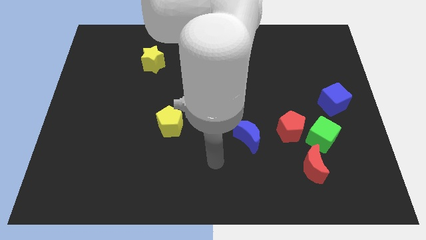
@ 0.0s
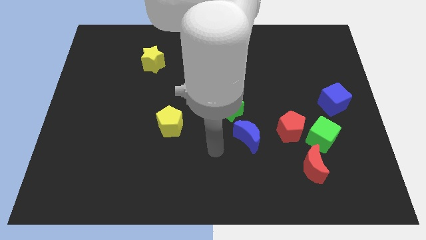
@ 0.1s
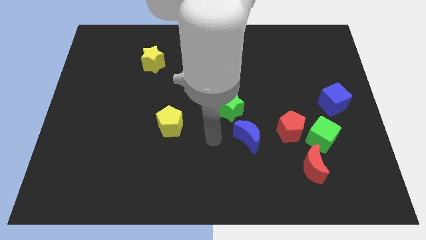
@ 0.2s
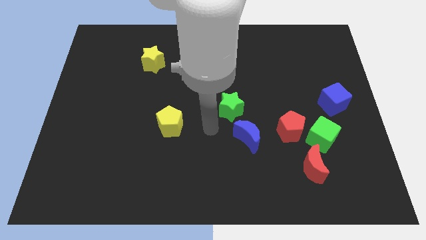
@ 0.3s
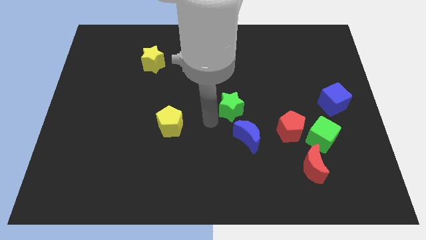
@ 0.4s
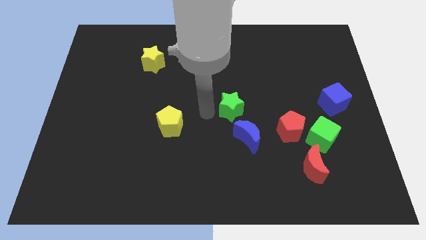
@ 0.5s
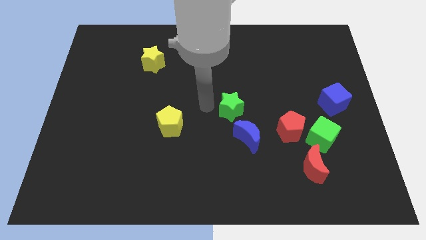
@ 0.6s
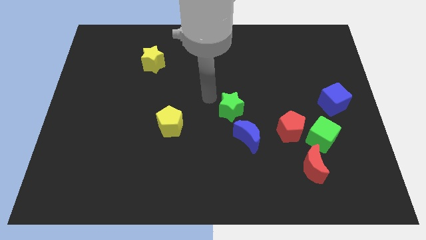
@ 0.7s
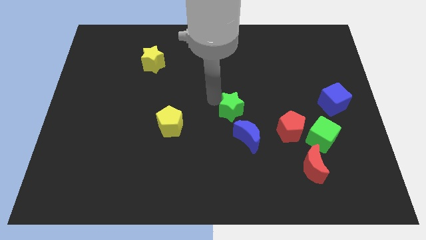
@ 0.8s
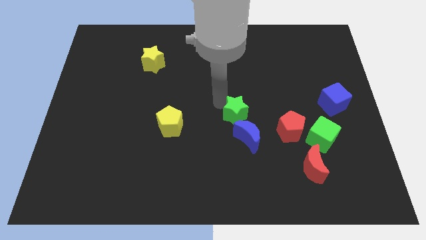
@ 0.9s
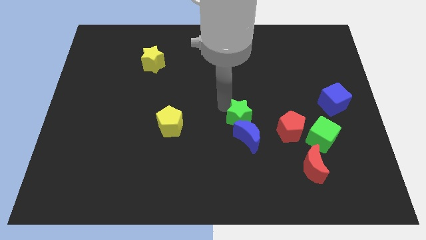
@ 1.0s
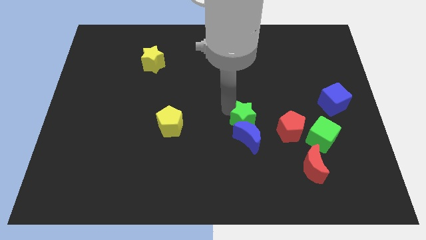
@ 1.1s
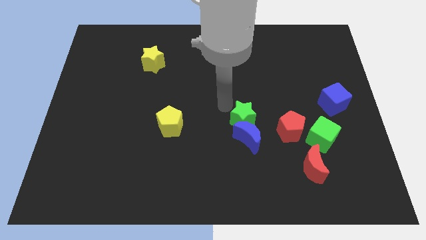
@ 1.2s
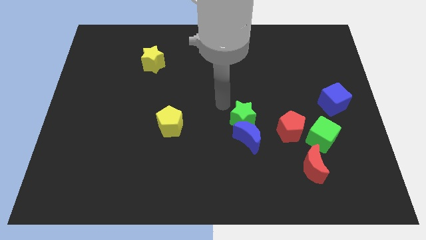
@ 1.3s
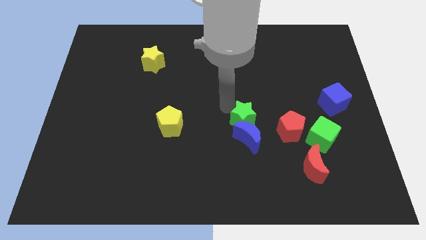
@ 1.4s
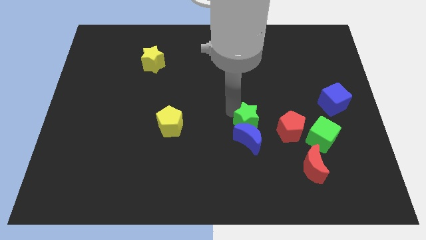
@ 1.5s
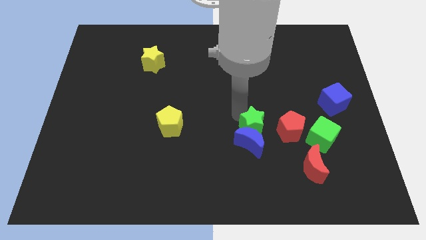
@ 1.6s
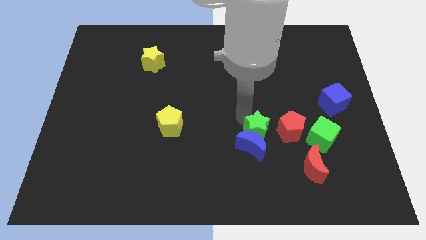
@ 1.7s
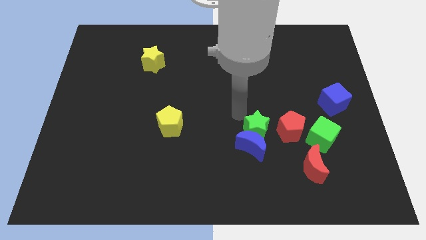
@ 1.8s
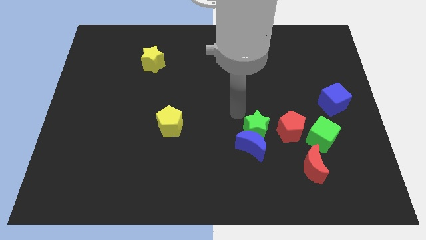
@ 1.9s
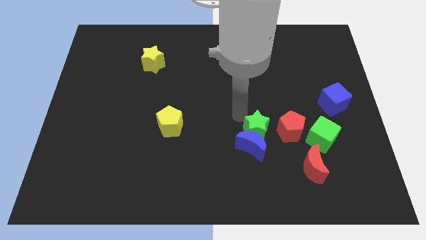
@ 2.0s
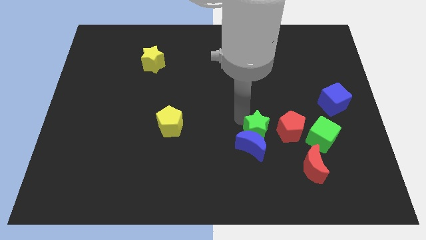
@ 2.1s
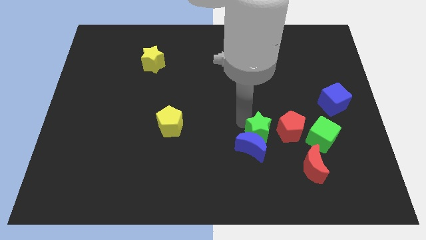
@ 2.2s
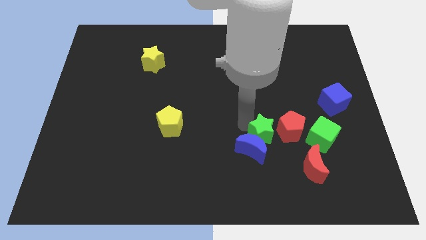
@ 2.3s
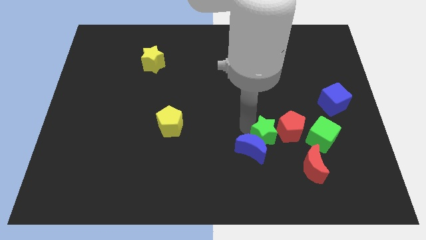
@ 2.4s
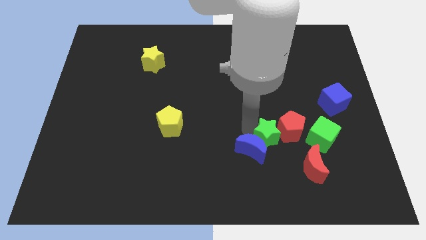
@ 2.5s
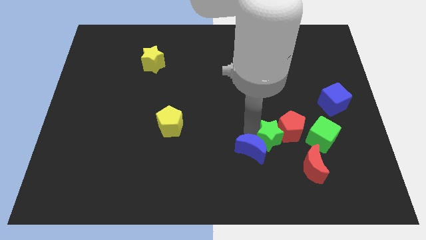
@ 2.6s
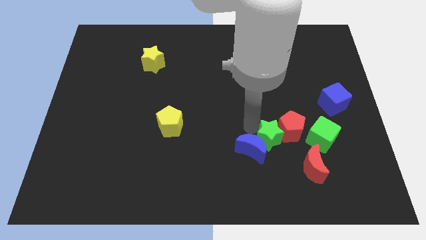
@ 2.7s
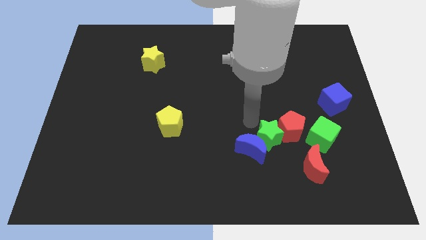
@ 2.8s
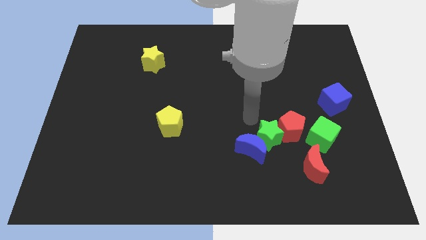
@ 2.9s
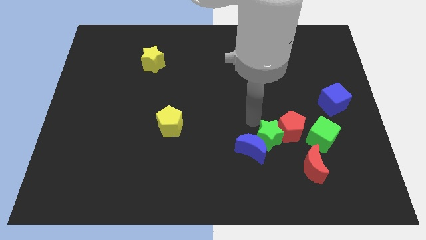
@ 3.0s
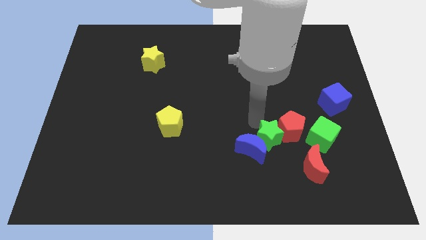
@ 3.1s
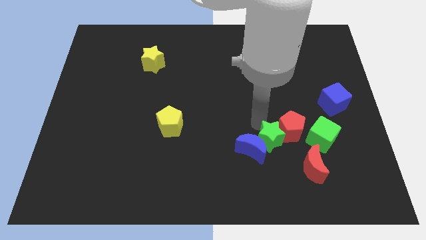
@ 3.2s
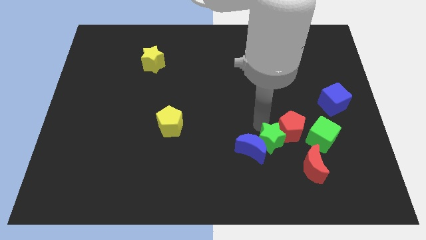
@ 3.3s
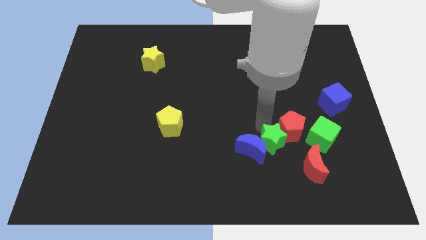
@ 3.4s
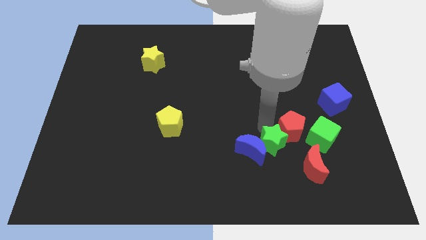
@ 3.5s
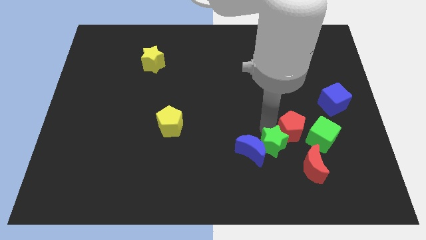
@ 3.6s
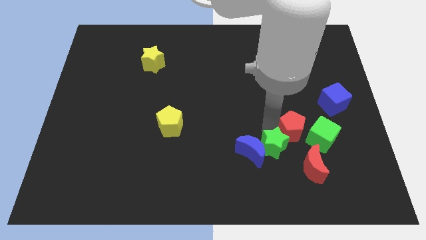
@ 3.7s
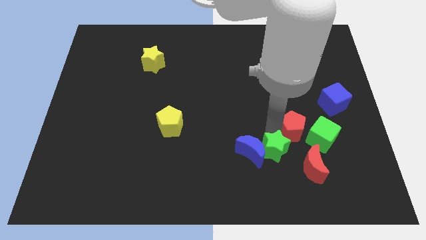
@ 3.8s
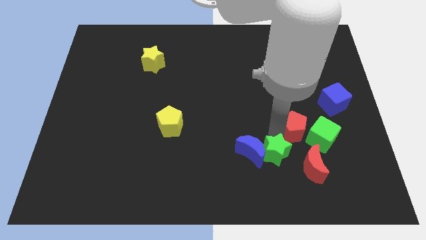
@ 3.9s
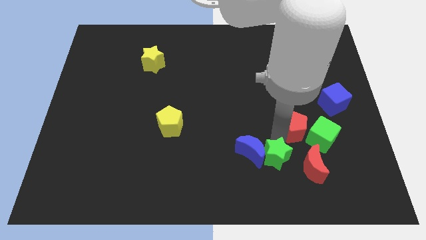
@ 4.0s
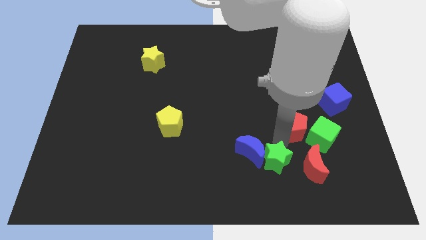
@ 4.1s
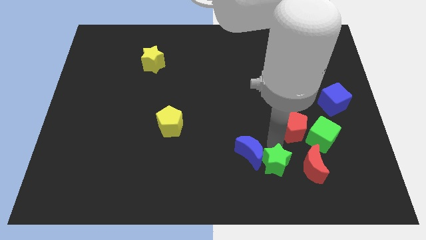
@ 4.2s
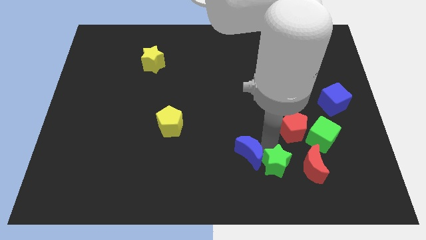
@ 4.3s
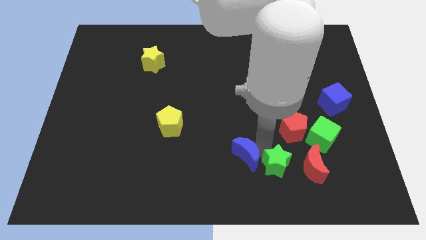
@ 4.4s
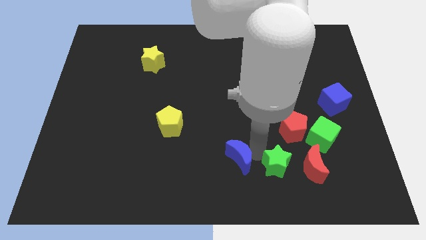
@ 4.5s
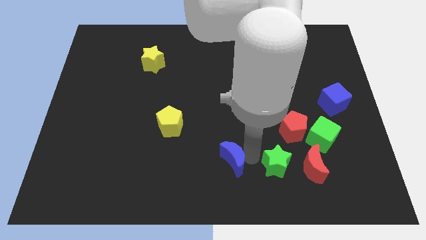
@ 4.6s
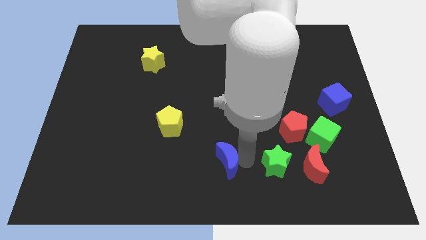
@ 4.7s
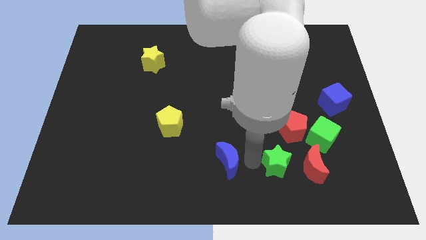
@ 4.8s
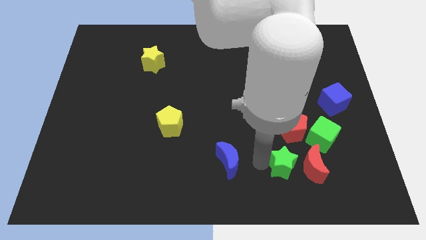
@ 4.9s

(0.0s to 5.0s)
push the green star close to the red moon

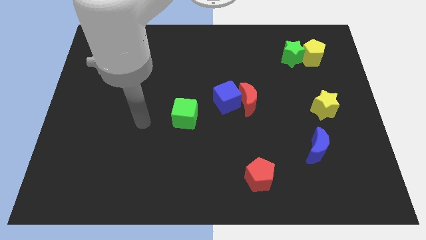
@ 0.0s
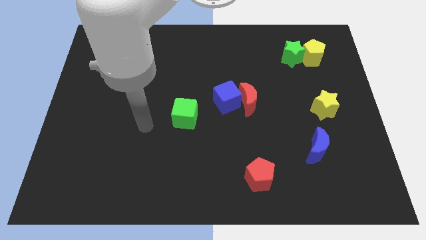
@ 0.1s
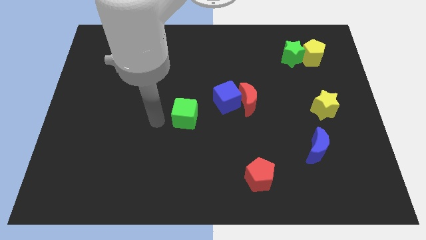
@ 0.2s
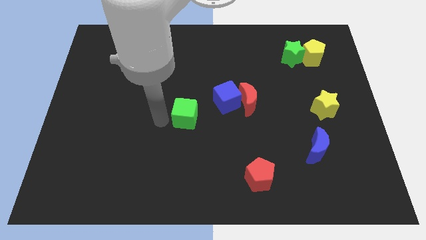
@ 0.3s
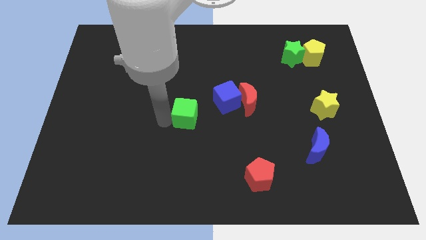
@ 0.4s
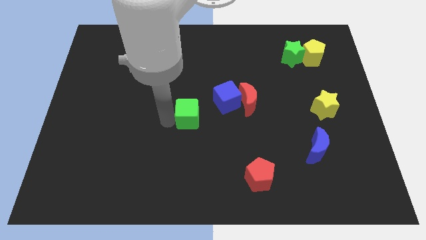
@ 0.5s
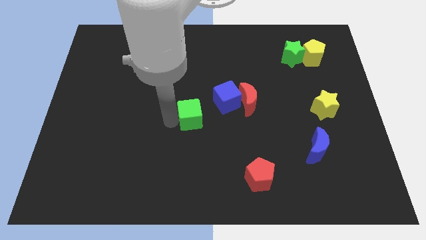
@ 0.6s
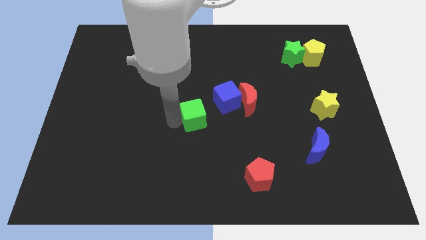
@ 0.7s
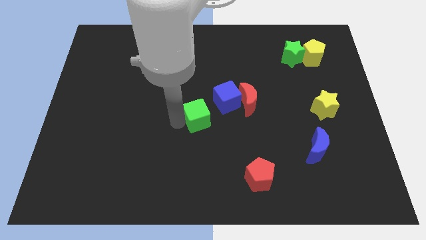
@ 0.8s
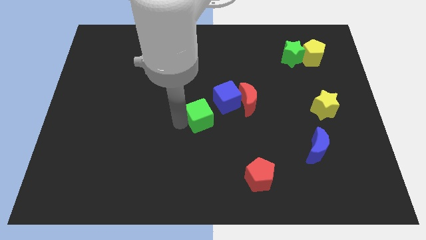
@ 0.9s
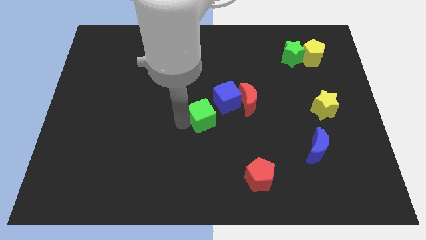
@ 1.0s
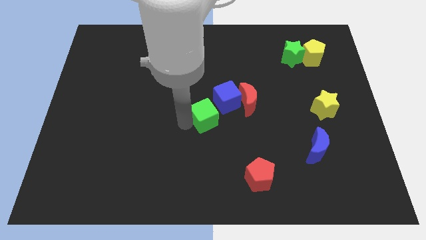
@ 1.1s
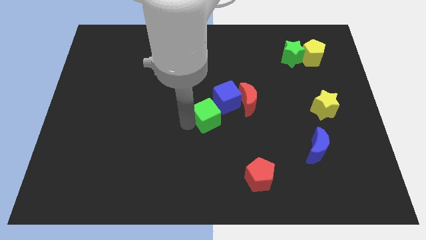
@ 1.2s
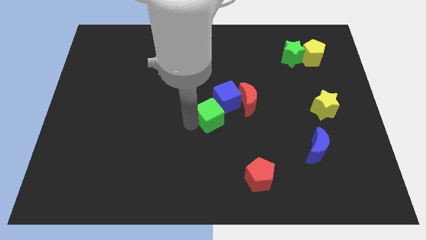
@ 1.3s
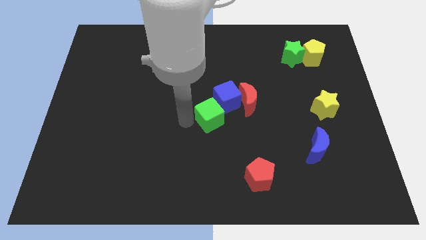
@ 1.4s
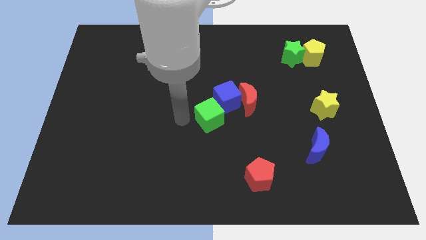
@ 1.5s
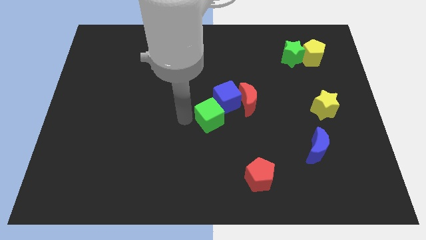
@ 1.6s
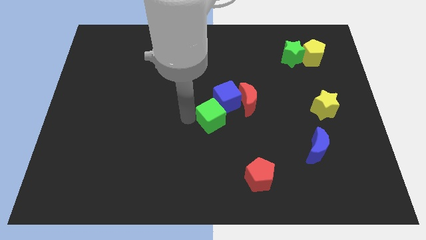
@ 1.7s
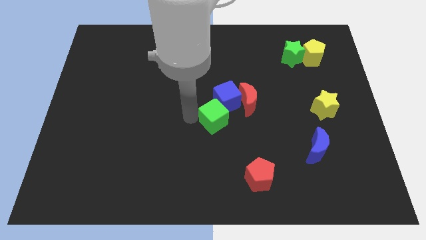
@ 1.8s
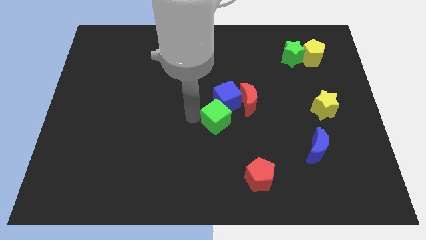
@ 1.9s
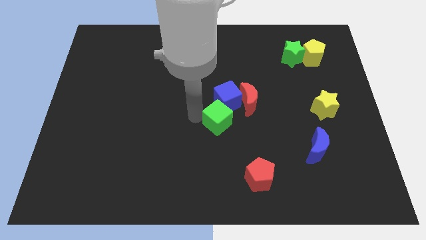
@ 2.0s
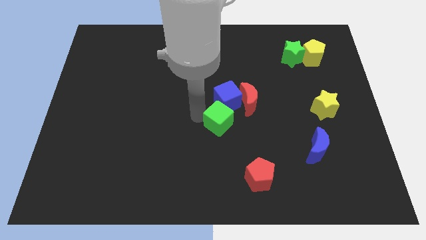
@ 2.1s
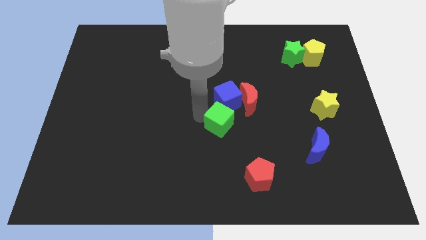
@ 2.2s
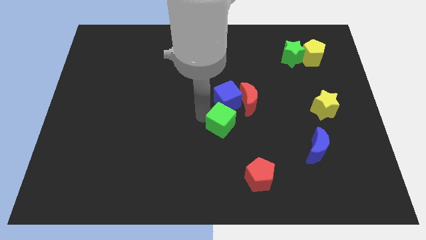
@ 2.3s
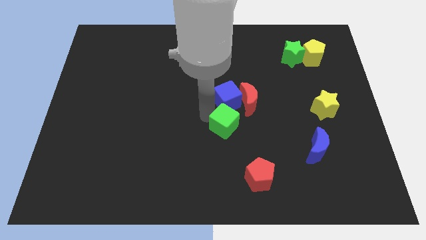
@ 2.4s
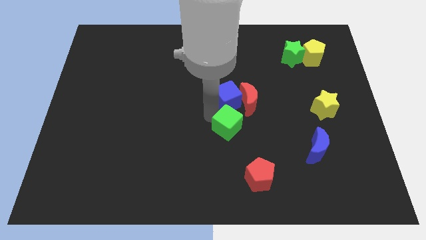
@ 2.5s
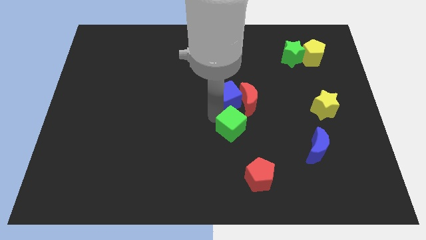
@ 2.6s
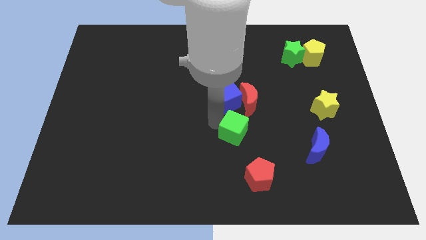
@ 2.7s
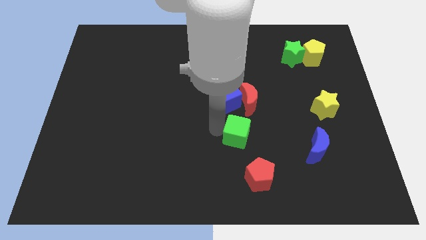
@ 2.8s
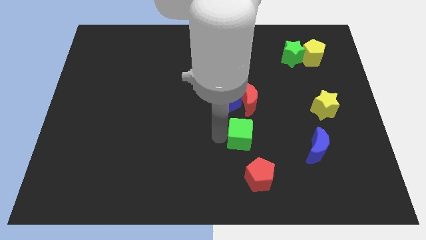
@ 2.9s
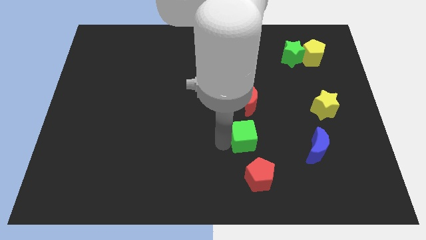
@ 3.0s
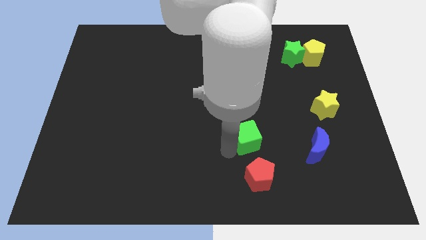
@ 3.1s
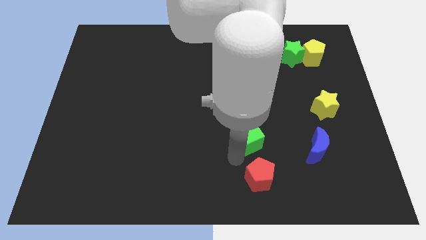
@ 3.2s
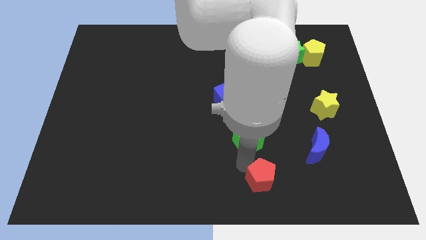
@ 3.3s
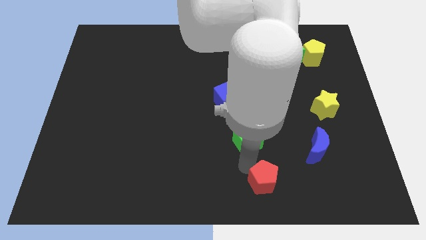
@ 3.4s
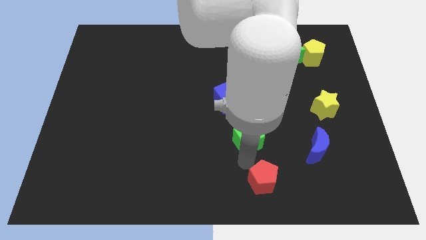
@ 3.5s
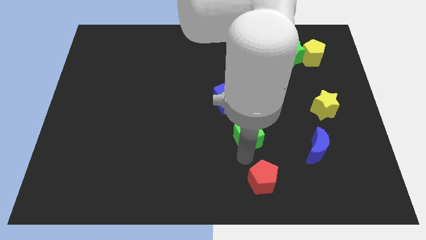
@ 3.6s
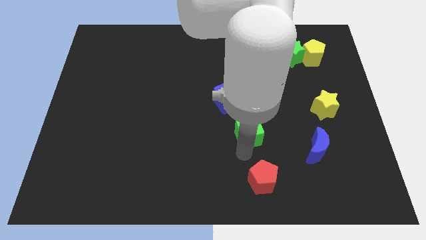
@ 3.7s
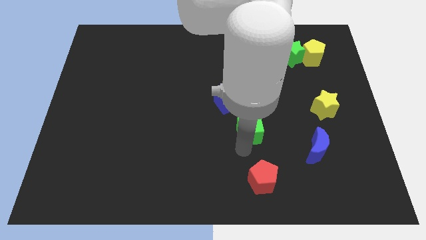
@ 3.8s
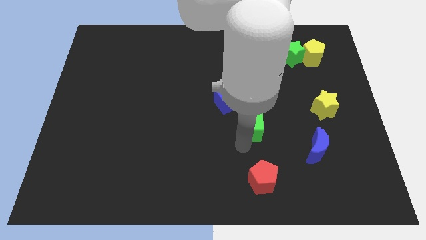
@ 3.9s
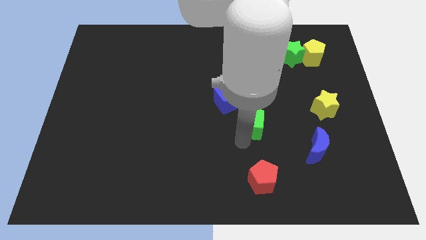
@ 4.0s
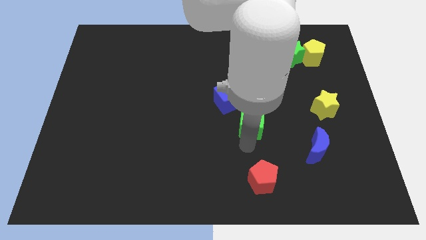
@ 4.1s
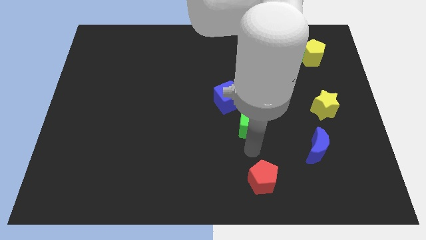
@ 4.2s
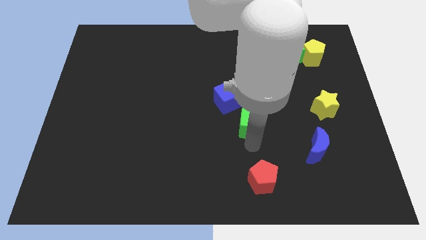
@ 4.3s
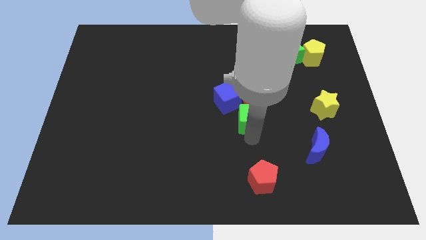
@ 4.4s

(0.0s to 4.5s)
move the green cube next to the red moon
